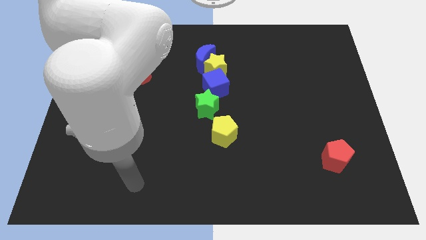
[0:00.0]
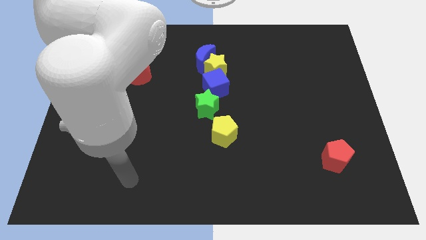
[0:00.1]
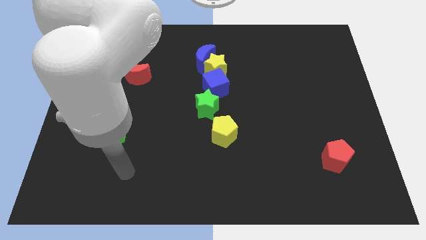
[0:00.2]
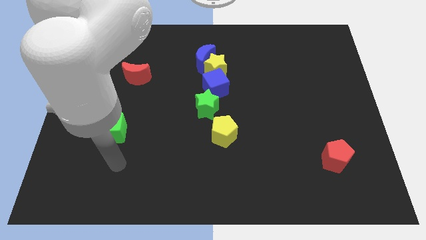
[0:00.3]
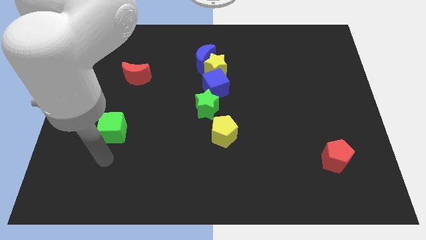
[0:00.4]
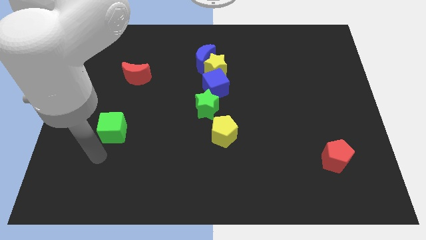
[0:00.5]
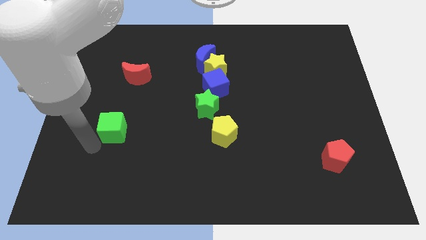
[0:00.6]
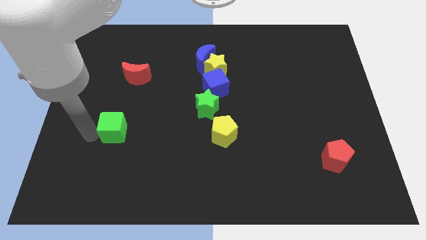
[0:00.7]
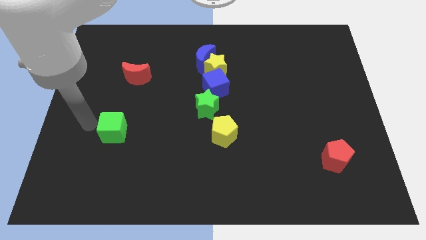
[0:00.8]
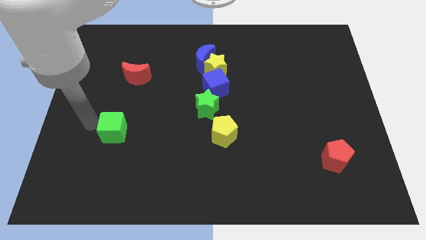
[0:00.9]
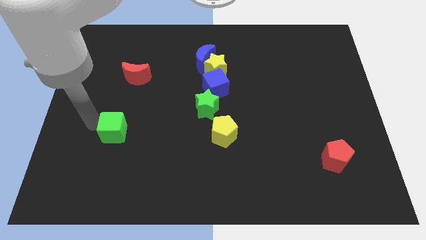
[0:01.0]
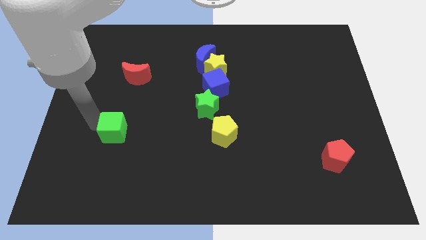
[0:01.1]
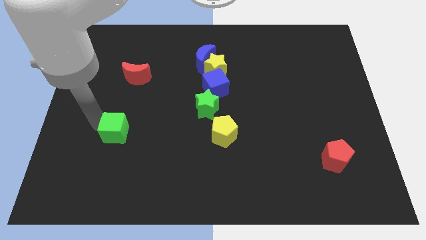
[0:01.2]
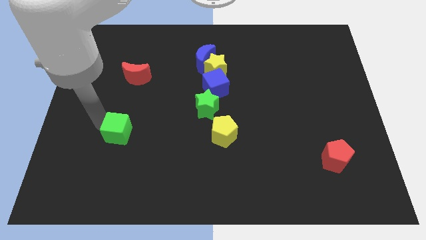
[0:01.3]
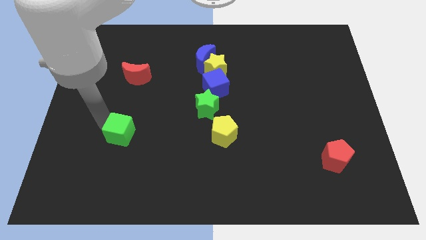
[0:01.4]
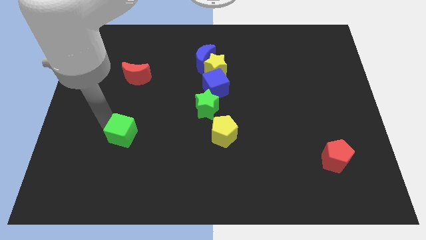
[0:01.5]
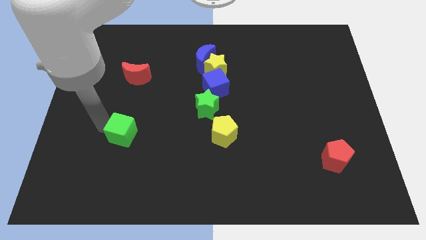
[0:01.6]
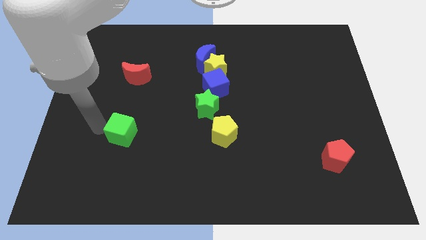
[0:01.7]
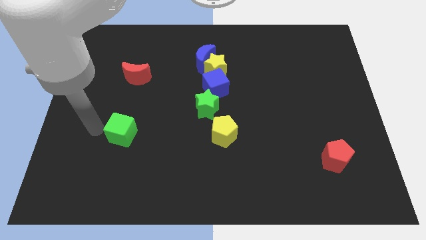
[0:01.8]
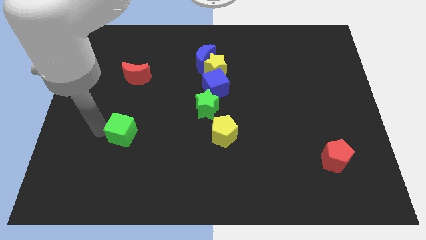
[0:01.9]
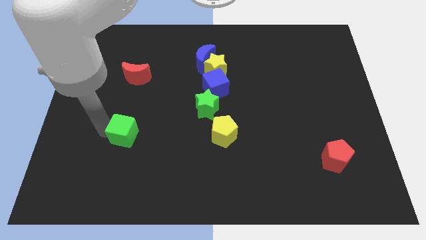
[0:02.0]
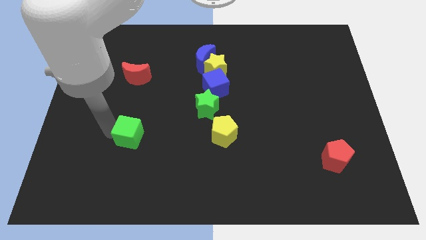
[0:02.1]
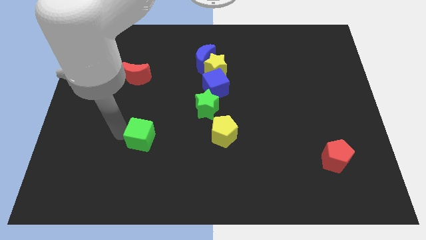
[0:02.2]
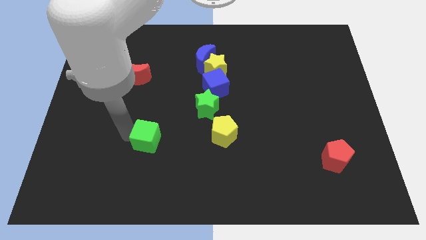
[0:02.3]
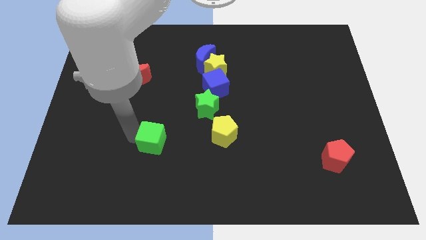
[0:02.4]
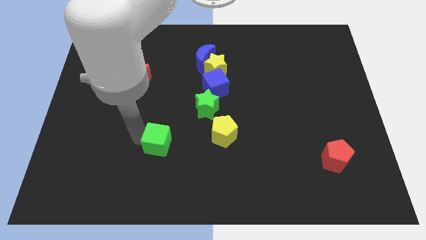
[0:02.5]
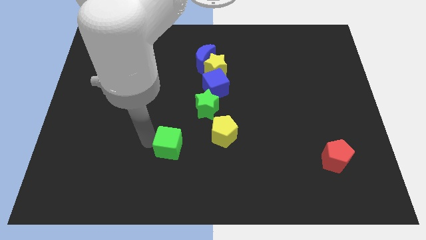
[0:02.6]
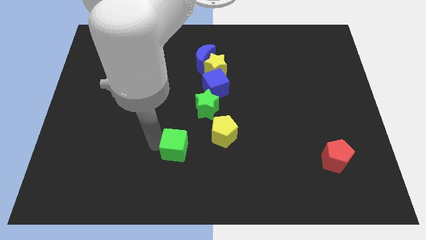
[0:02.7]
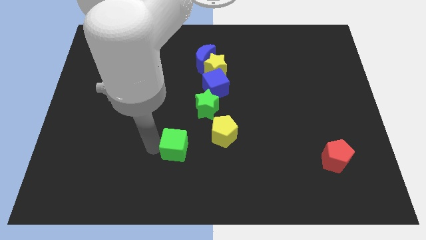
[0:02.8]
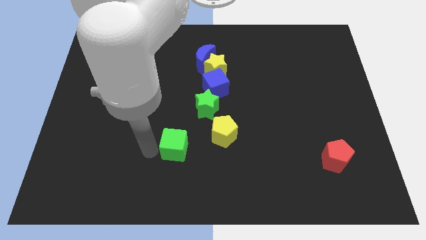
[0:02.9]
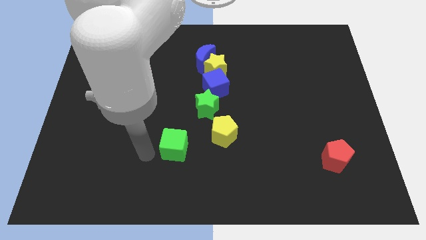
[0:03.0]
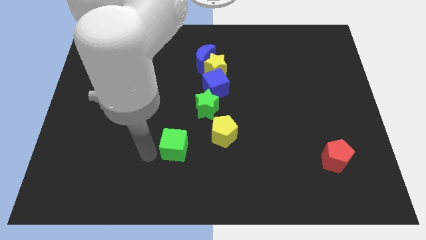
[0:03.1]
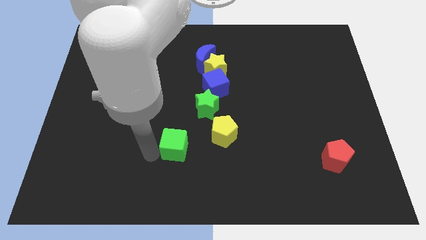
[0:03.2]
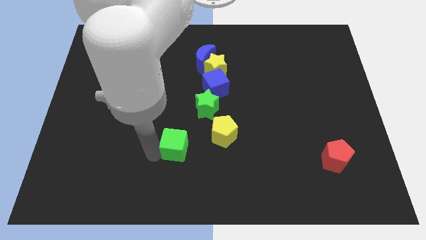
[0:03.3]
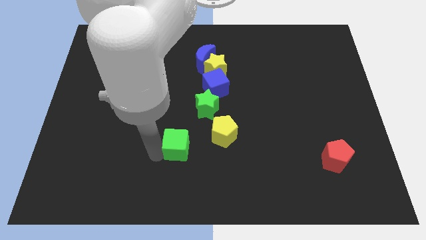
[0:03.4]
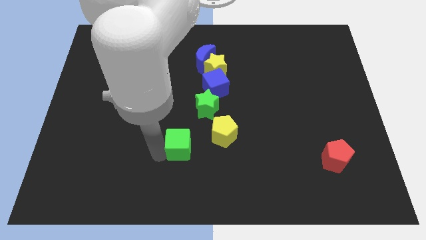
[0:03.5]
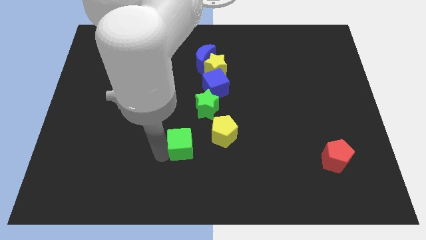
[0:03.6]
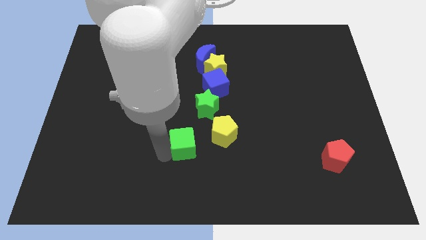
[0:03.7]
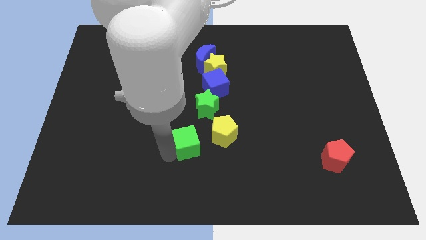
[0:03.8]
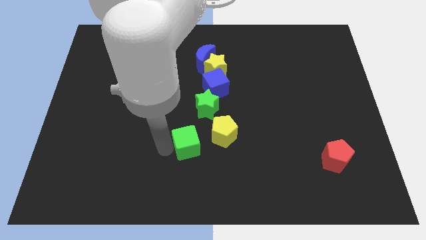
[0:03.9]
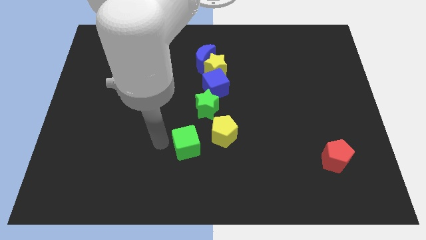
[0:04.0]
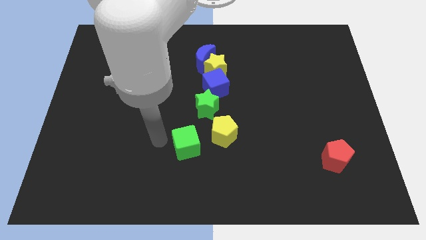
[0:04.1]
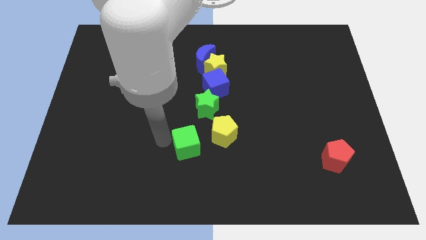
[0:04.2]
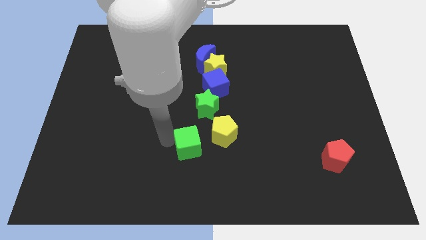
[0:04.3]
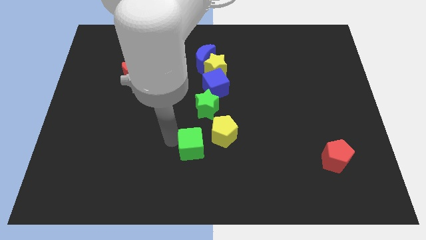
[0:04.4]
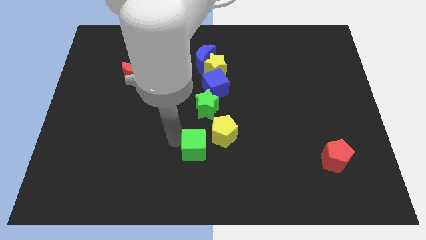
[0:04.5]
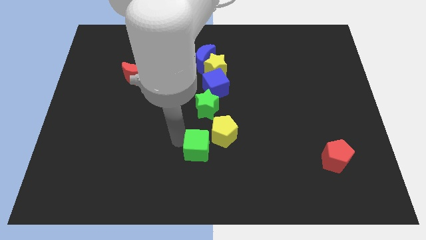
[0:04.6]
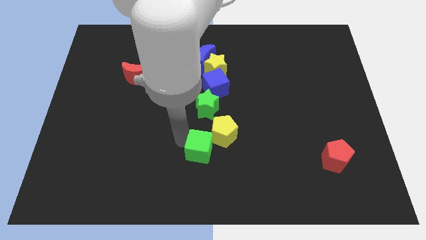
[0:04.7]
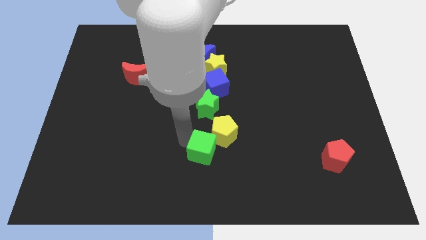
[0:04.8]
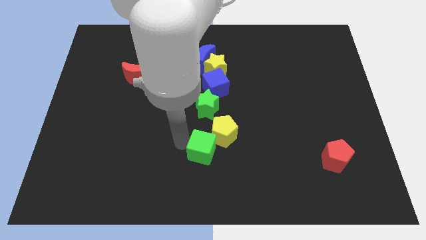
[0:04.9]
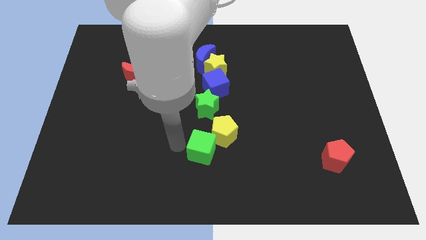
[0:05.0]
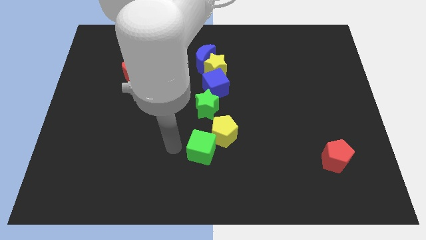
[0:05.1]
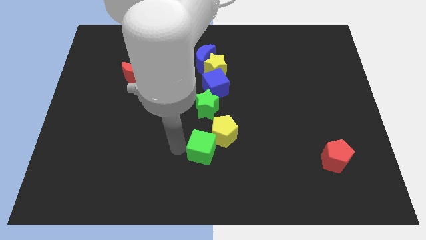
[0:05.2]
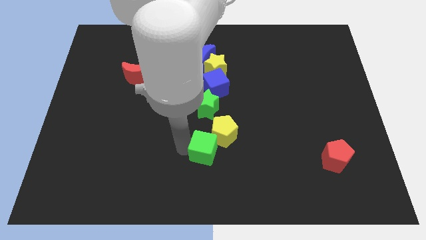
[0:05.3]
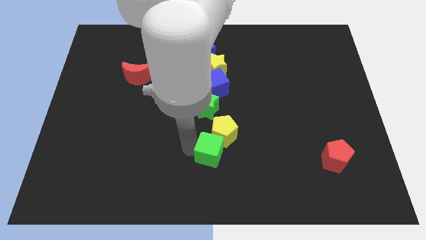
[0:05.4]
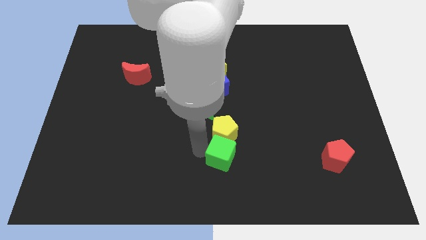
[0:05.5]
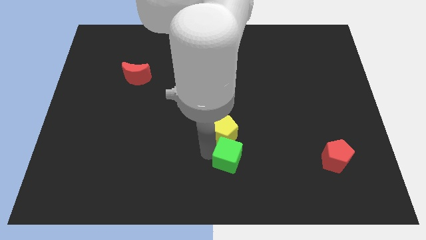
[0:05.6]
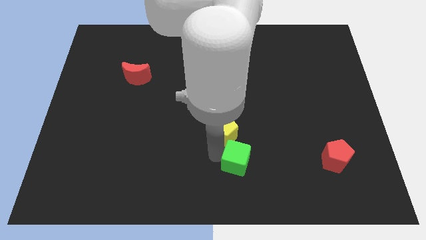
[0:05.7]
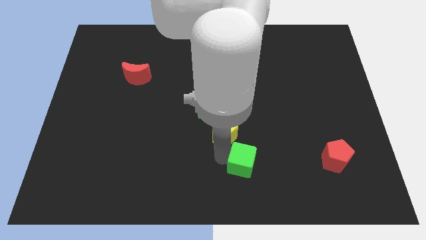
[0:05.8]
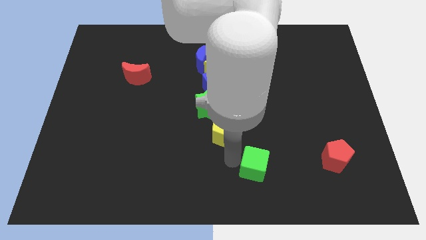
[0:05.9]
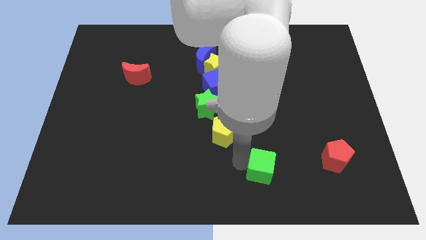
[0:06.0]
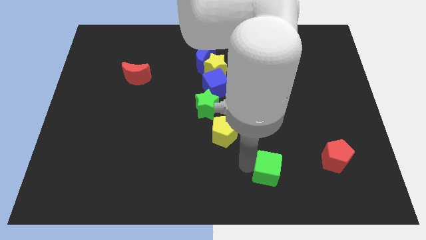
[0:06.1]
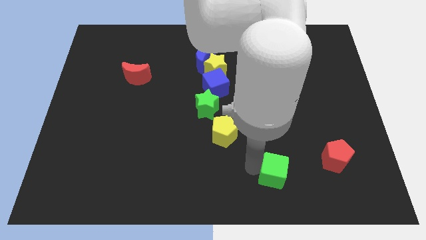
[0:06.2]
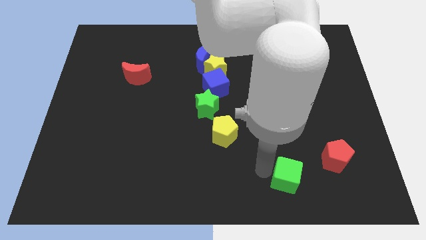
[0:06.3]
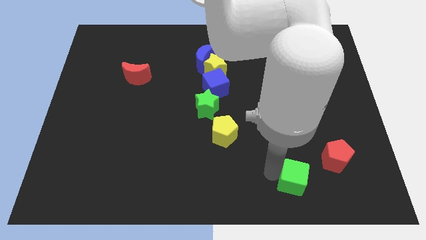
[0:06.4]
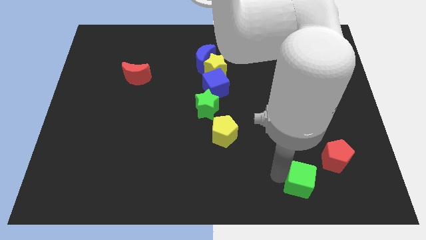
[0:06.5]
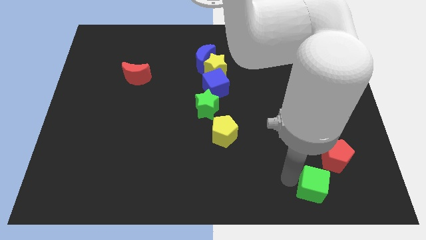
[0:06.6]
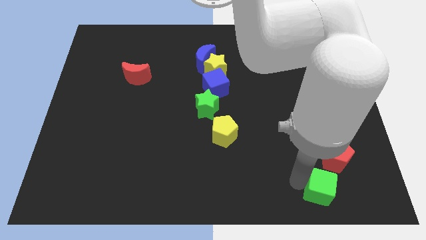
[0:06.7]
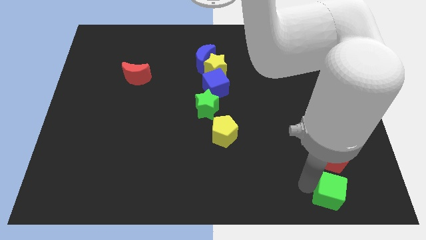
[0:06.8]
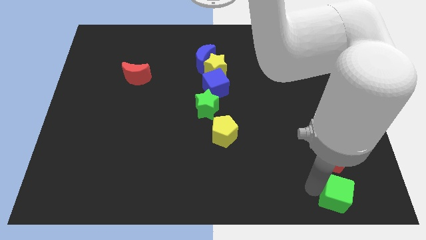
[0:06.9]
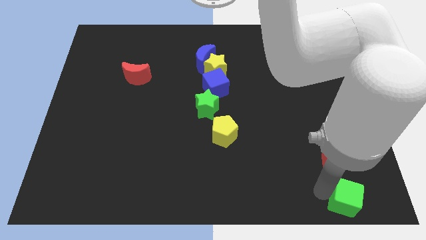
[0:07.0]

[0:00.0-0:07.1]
slide the green cube to the bottom right corner
